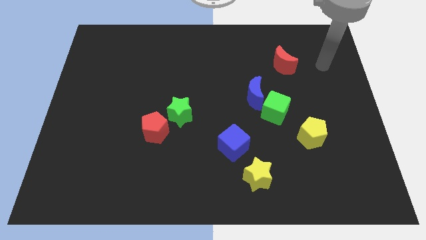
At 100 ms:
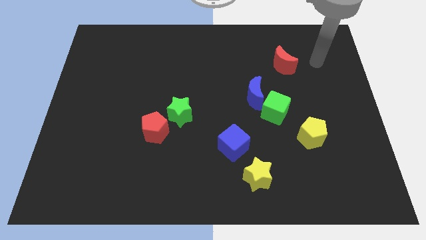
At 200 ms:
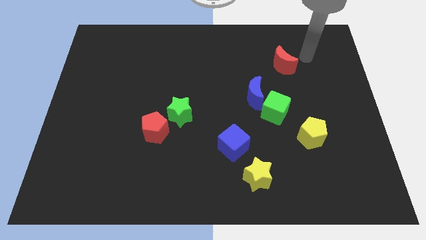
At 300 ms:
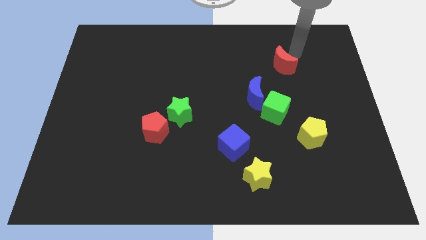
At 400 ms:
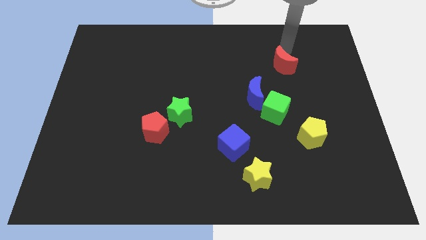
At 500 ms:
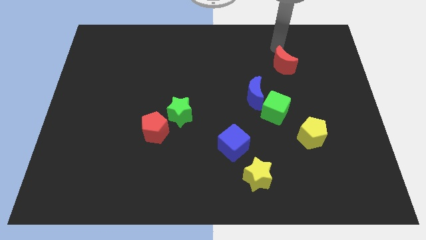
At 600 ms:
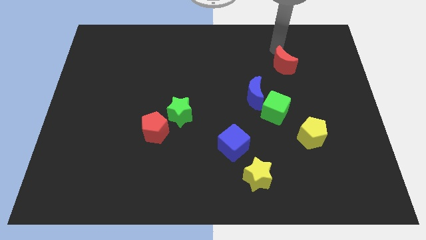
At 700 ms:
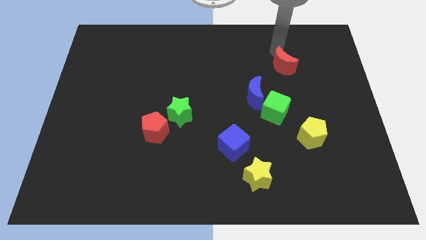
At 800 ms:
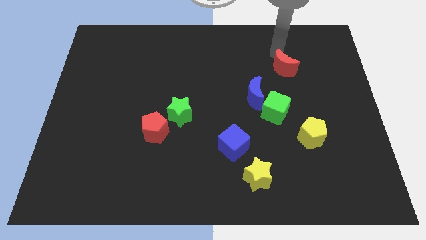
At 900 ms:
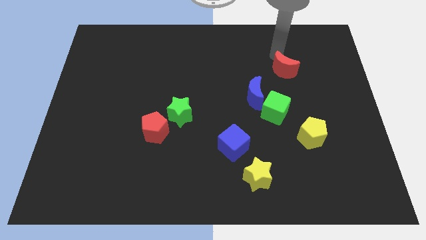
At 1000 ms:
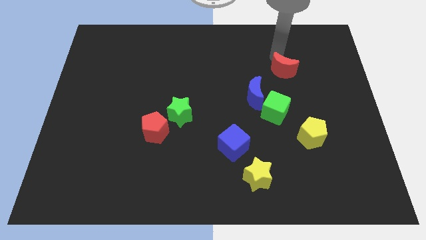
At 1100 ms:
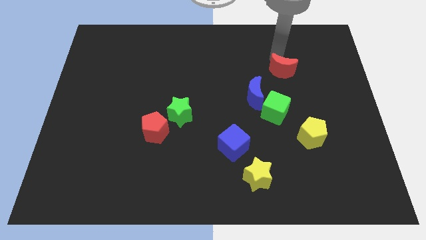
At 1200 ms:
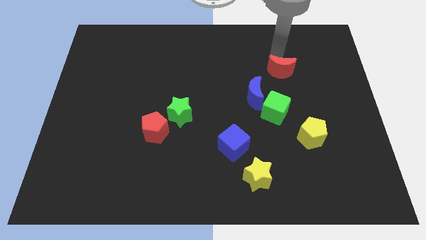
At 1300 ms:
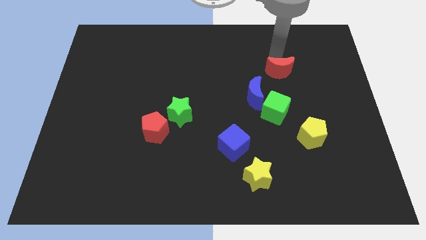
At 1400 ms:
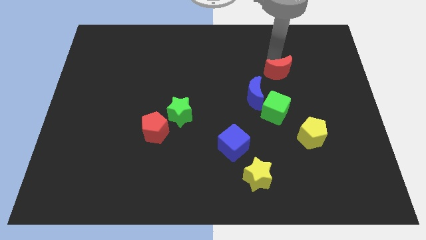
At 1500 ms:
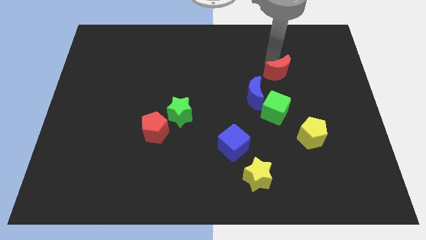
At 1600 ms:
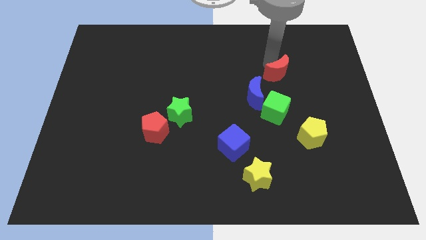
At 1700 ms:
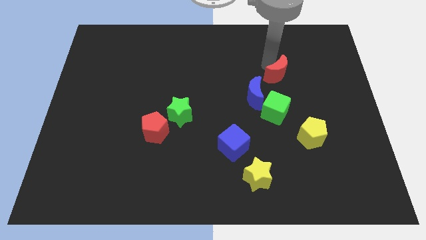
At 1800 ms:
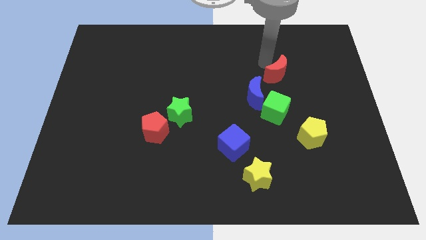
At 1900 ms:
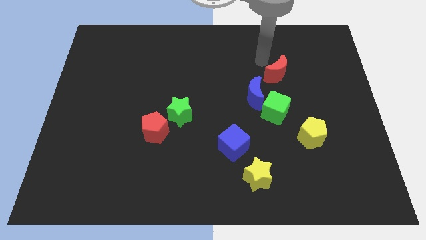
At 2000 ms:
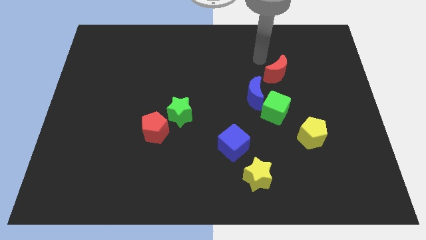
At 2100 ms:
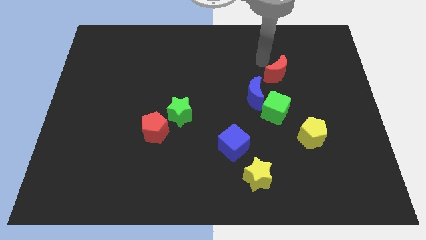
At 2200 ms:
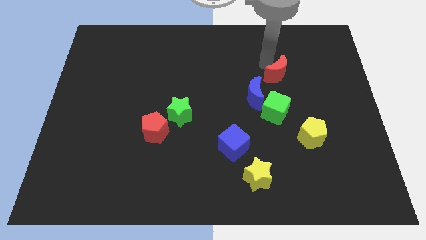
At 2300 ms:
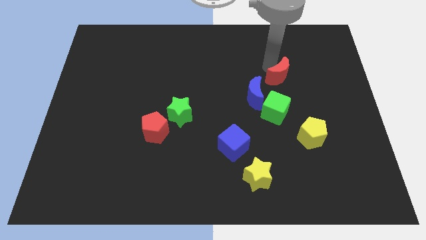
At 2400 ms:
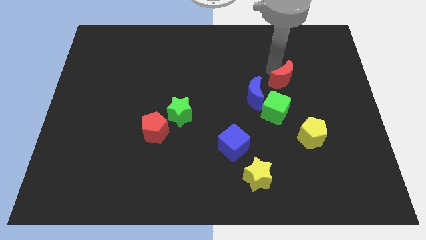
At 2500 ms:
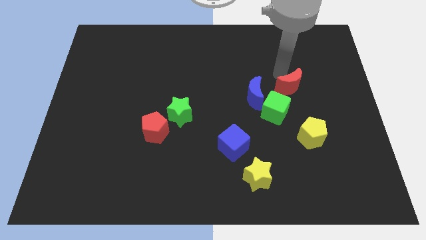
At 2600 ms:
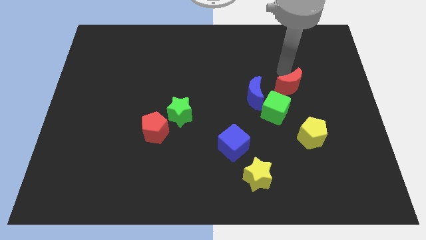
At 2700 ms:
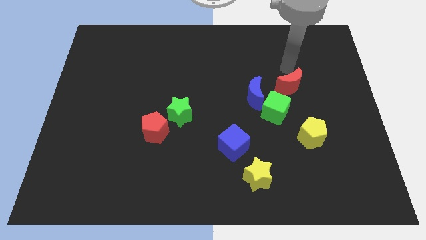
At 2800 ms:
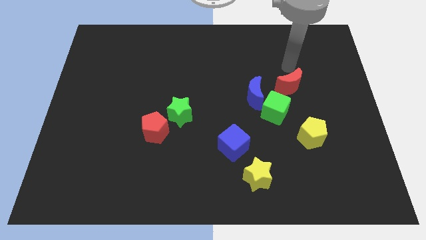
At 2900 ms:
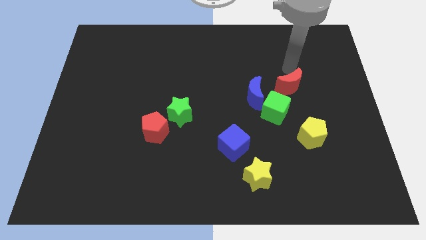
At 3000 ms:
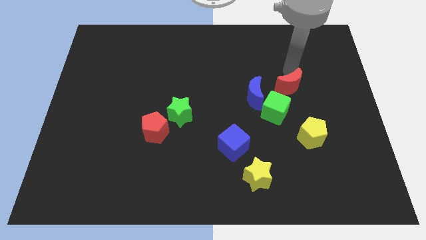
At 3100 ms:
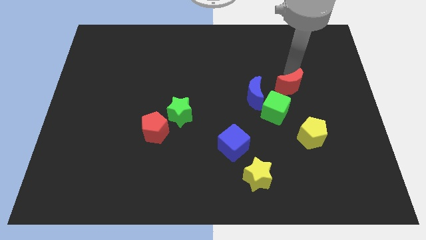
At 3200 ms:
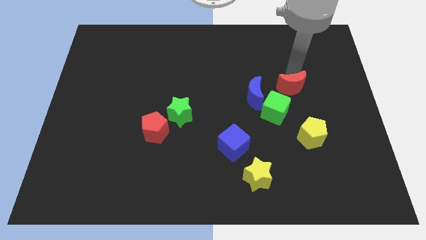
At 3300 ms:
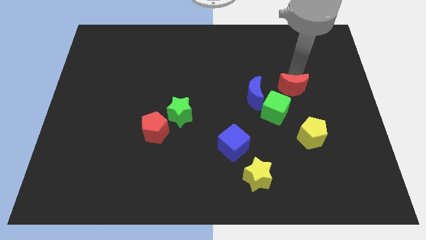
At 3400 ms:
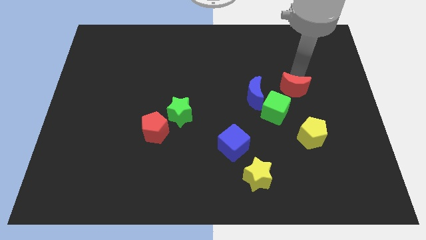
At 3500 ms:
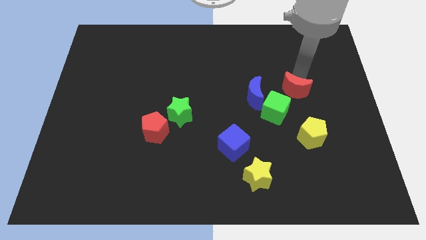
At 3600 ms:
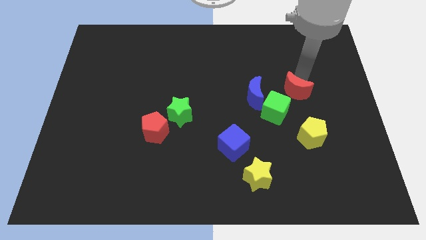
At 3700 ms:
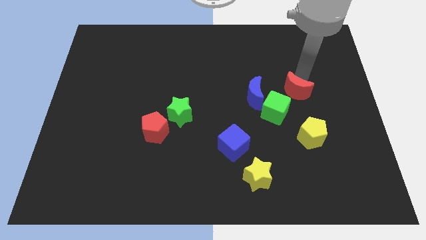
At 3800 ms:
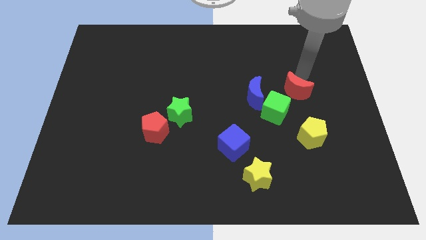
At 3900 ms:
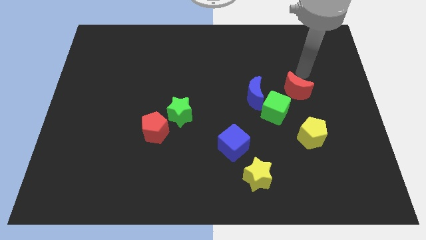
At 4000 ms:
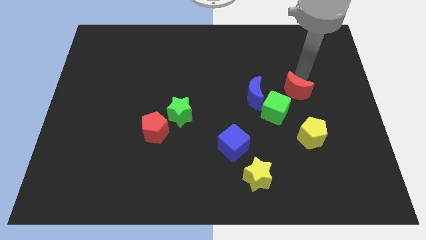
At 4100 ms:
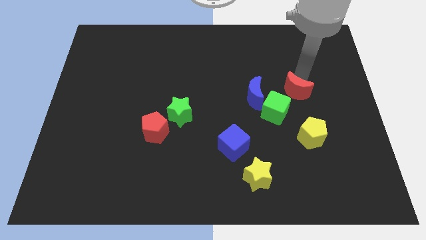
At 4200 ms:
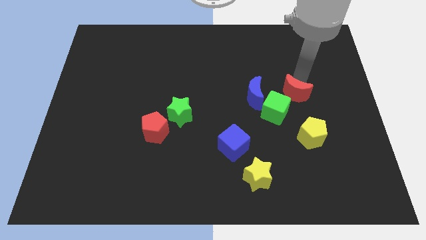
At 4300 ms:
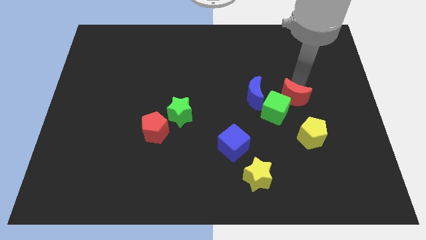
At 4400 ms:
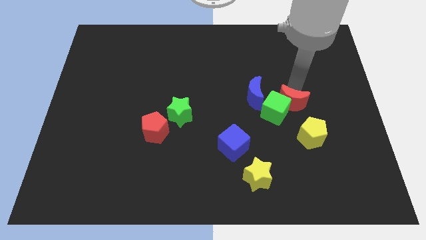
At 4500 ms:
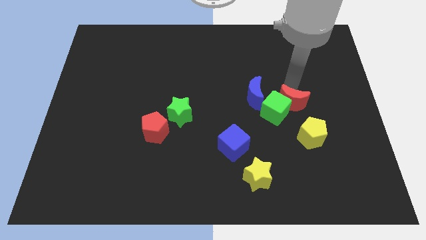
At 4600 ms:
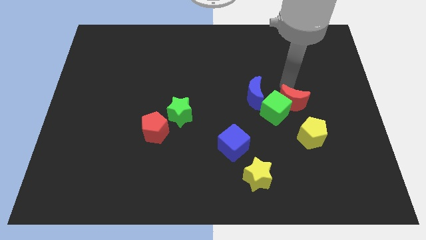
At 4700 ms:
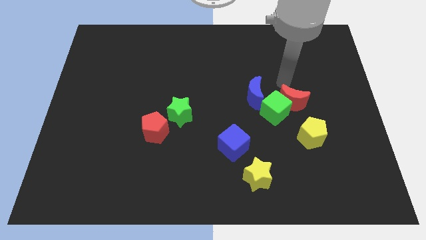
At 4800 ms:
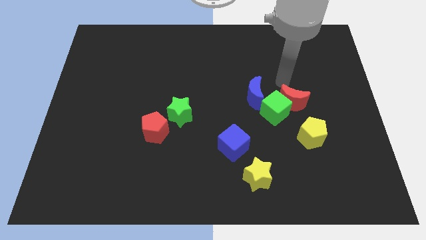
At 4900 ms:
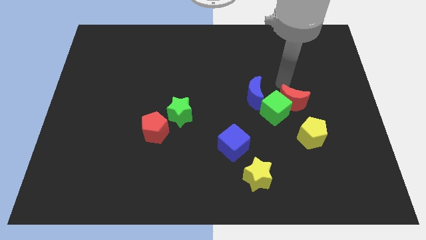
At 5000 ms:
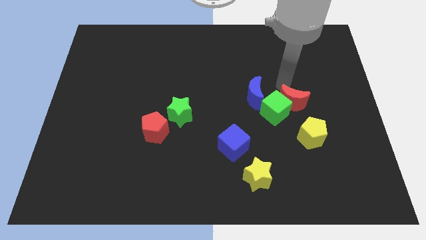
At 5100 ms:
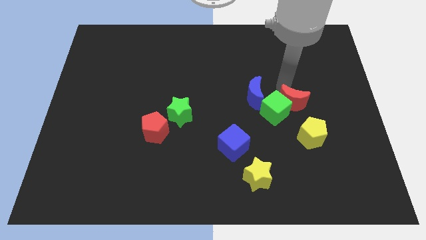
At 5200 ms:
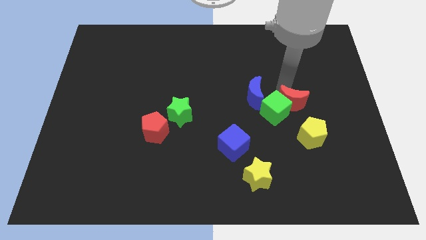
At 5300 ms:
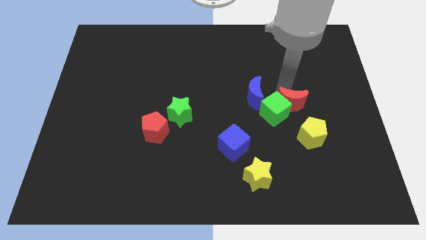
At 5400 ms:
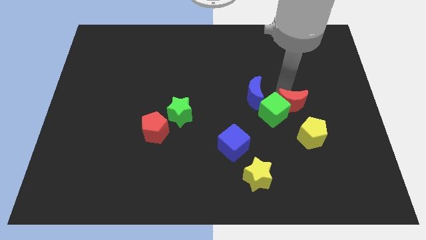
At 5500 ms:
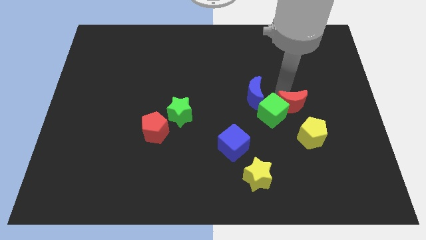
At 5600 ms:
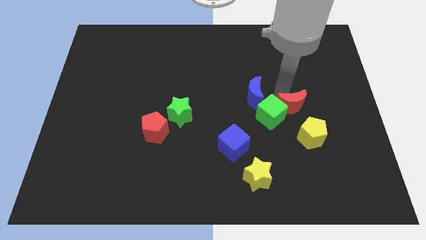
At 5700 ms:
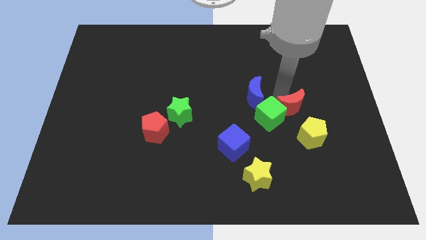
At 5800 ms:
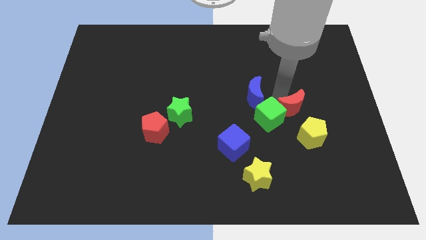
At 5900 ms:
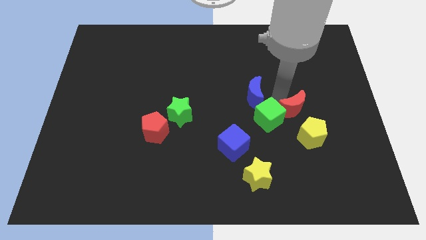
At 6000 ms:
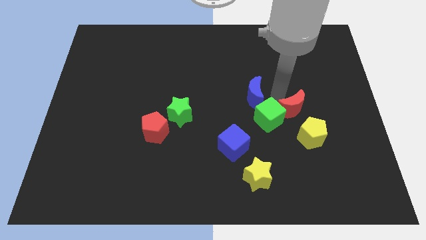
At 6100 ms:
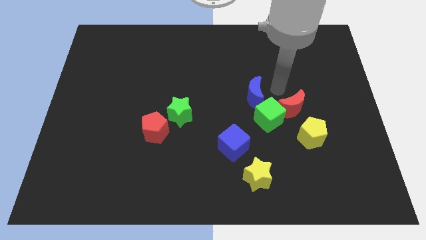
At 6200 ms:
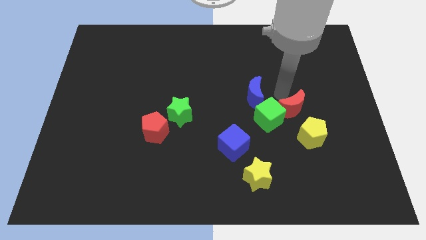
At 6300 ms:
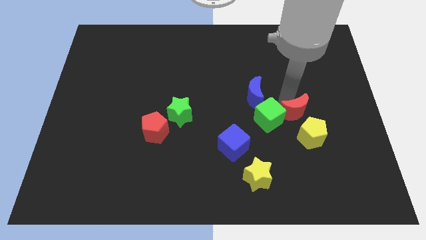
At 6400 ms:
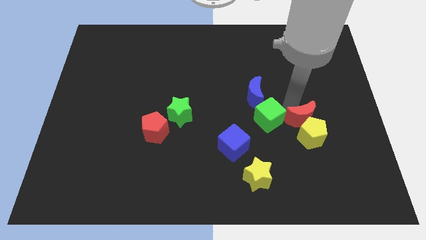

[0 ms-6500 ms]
slide the red moon to the yellow pentagon
